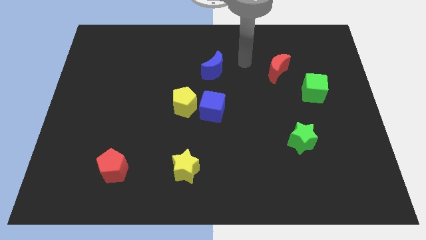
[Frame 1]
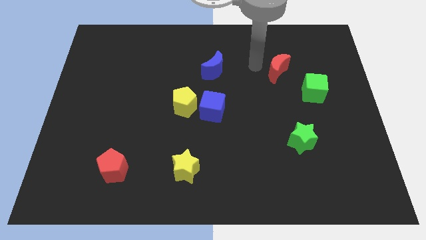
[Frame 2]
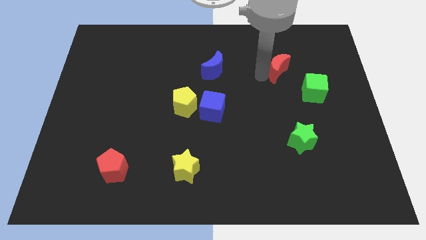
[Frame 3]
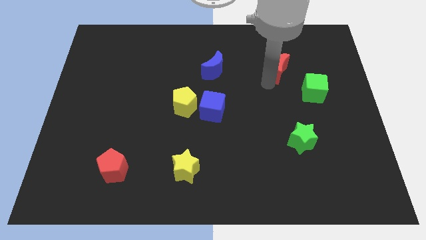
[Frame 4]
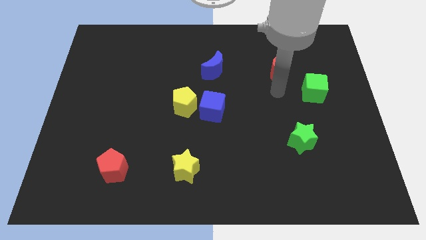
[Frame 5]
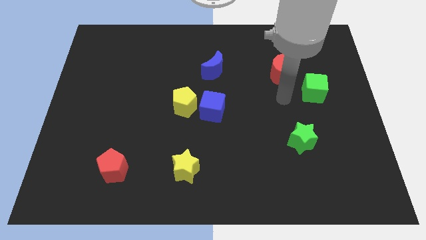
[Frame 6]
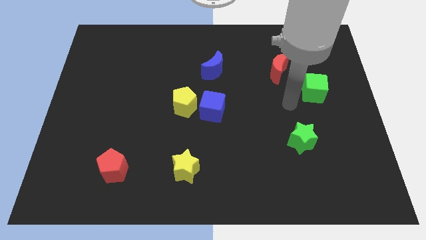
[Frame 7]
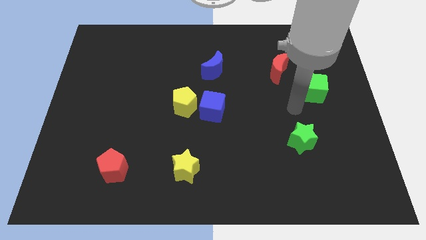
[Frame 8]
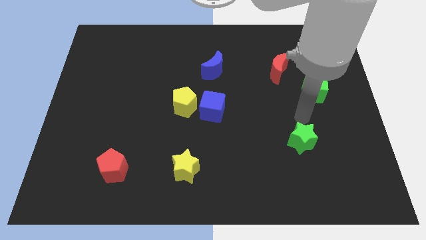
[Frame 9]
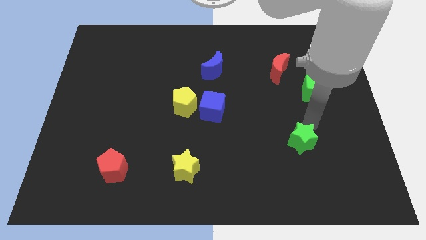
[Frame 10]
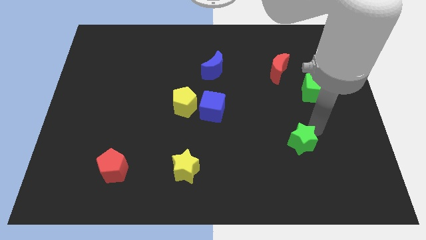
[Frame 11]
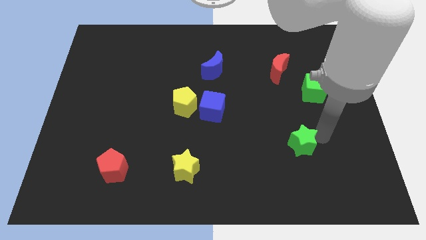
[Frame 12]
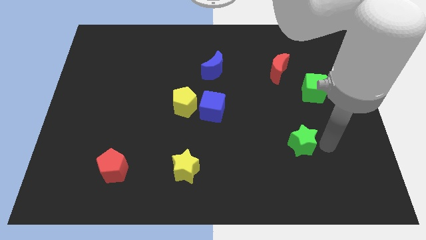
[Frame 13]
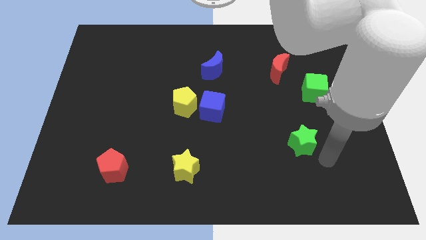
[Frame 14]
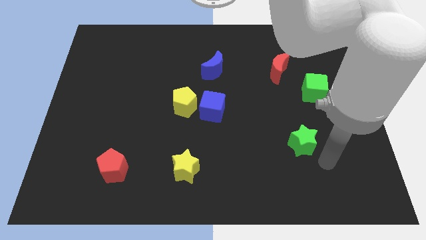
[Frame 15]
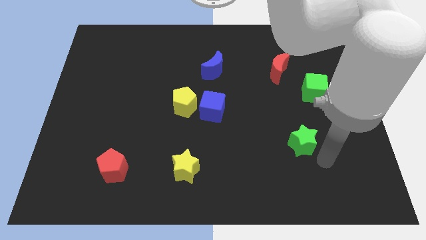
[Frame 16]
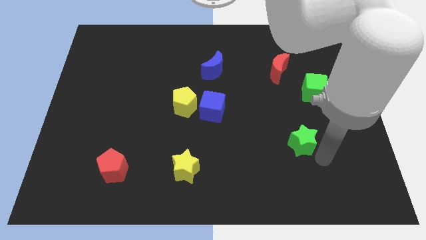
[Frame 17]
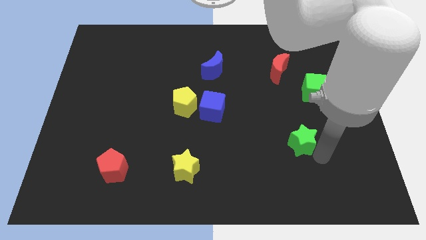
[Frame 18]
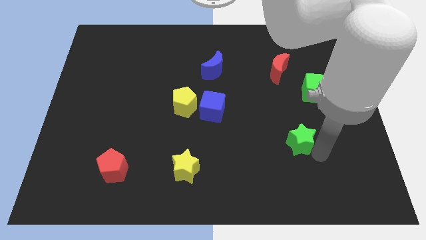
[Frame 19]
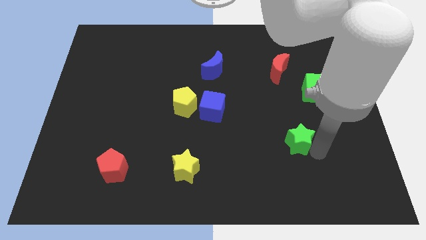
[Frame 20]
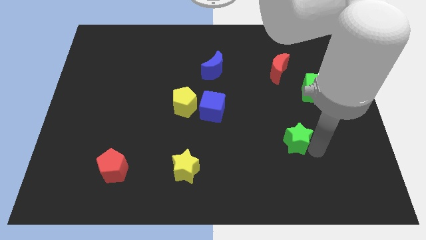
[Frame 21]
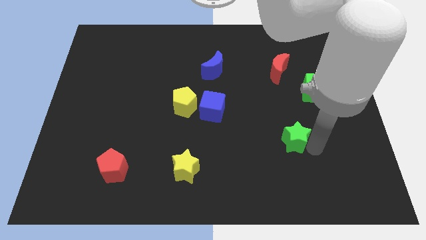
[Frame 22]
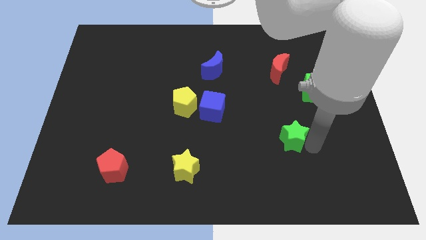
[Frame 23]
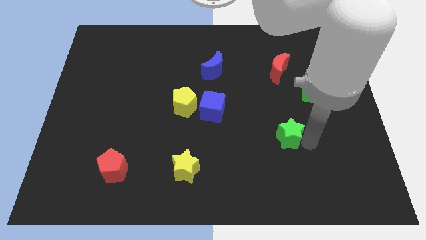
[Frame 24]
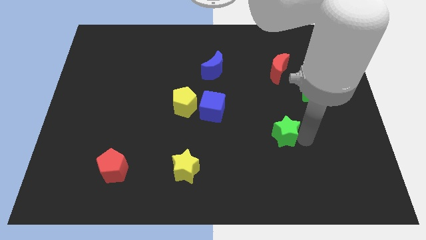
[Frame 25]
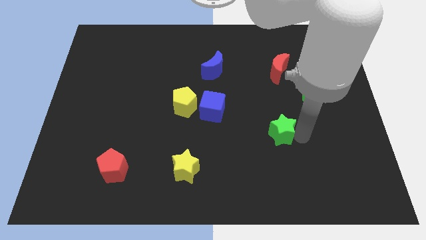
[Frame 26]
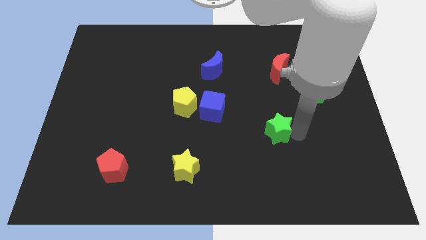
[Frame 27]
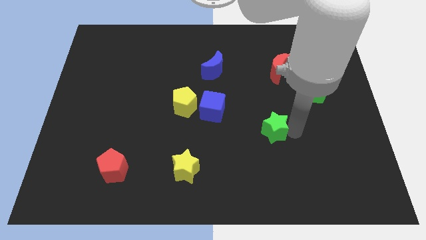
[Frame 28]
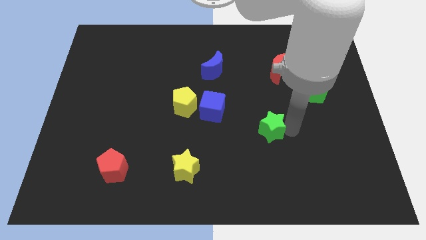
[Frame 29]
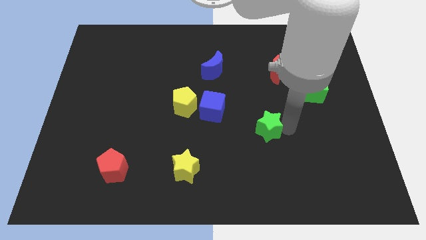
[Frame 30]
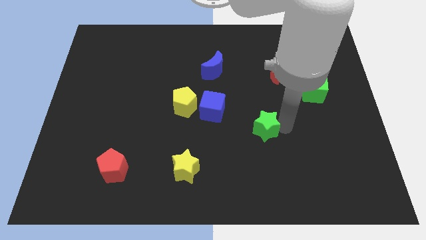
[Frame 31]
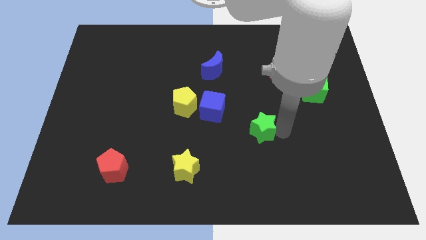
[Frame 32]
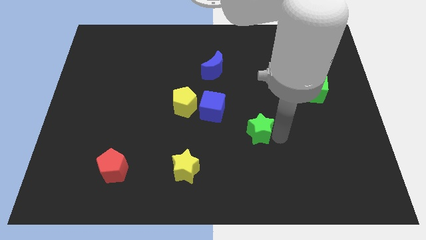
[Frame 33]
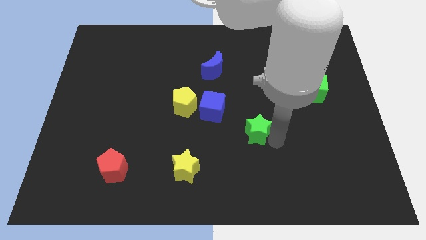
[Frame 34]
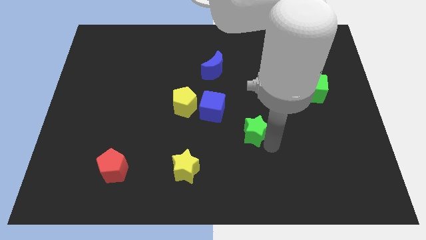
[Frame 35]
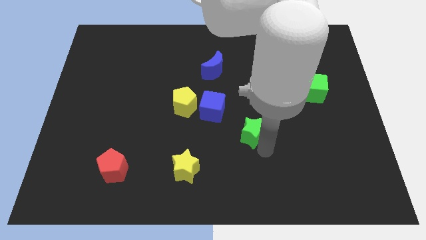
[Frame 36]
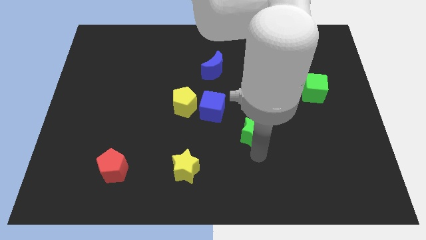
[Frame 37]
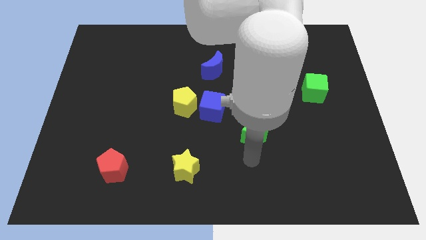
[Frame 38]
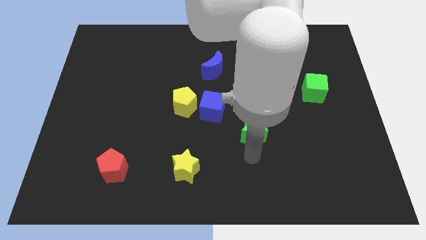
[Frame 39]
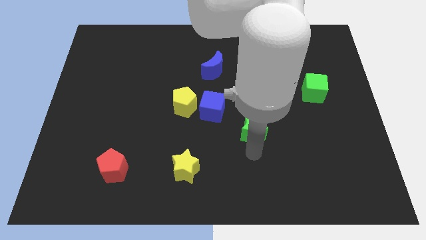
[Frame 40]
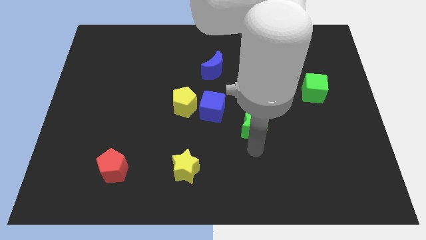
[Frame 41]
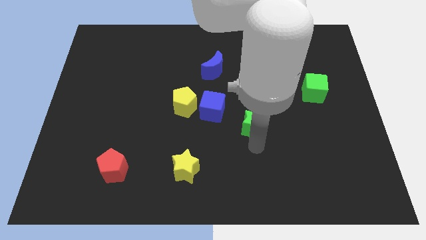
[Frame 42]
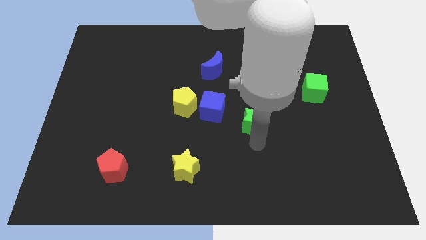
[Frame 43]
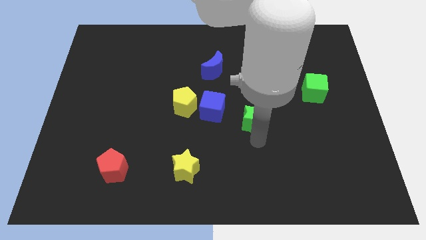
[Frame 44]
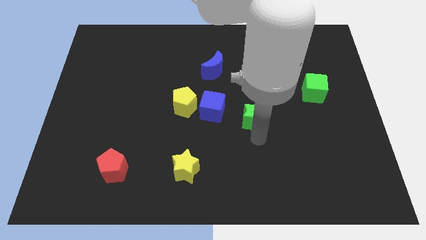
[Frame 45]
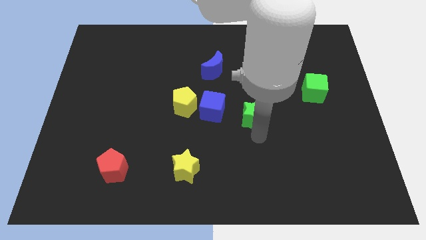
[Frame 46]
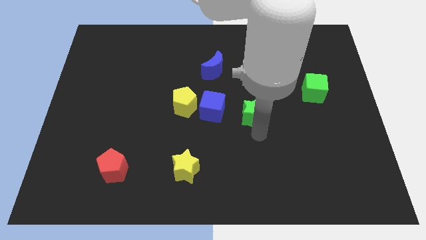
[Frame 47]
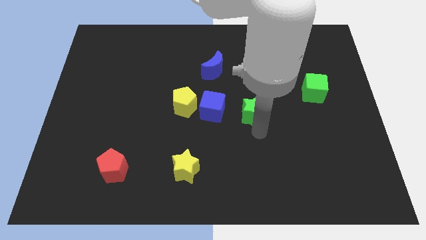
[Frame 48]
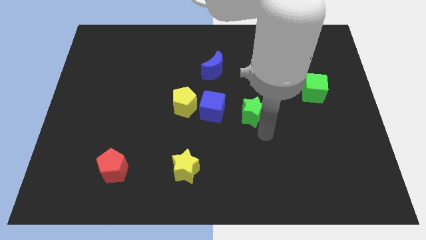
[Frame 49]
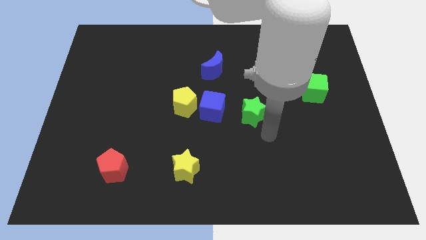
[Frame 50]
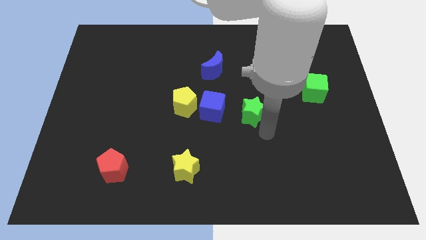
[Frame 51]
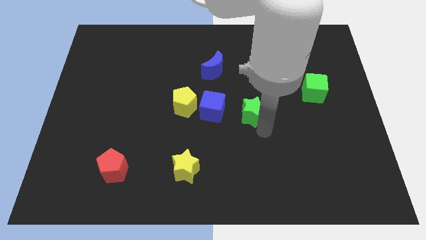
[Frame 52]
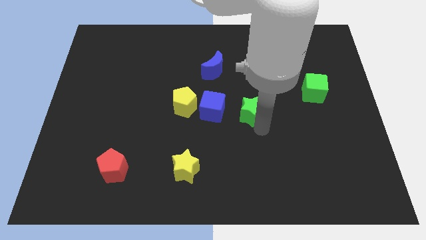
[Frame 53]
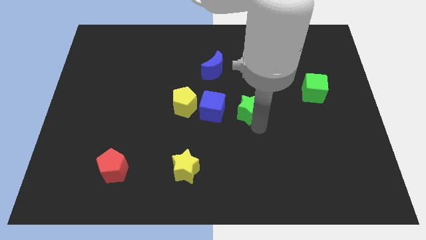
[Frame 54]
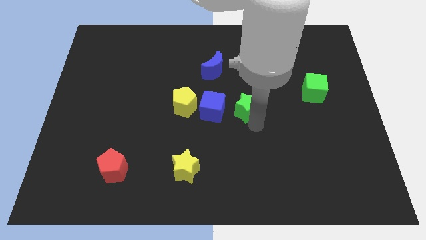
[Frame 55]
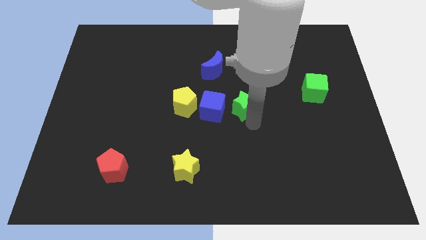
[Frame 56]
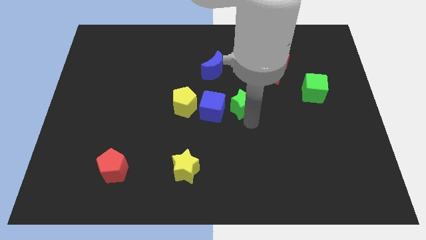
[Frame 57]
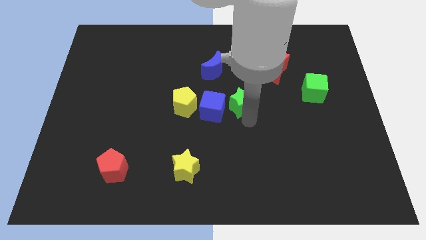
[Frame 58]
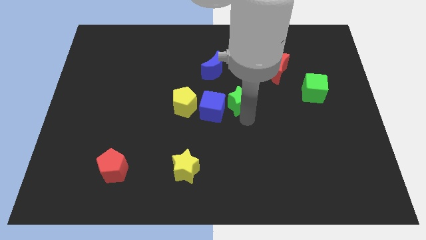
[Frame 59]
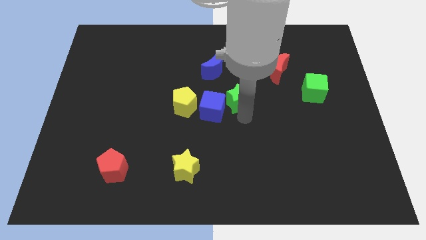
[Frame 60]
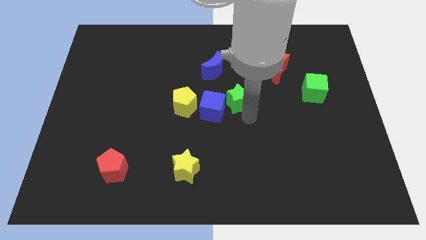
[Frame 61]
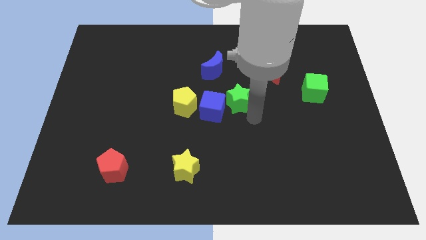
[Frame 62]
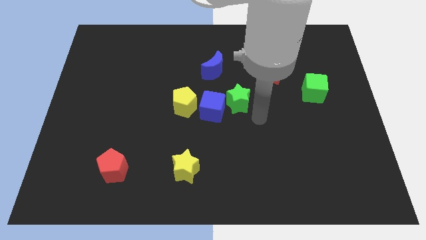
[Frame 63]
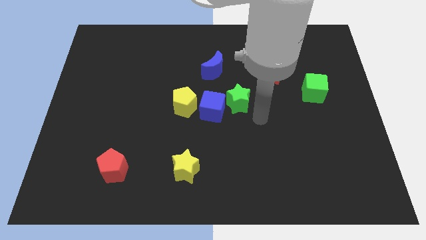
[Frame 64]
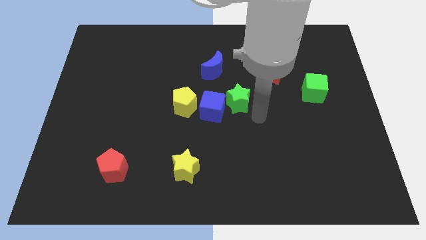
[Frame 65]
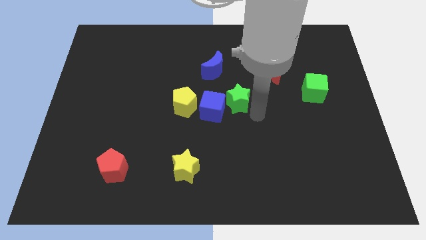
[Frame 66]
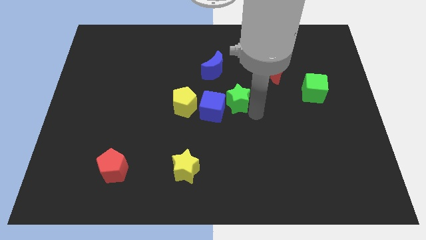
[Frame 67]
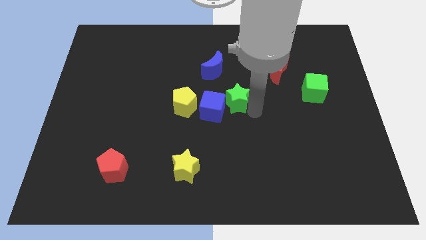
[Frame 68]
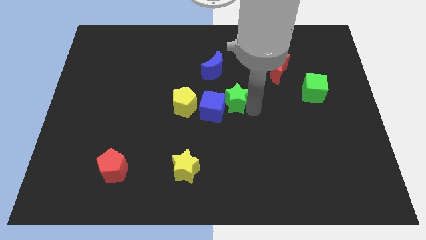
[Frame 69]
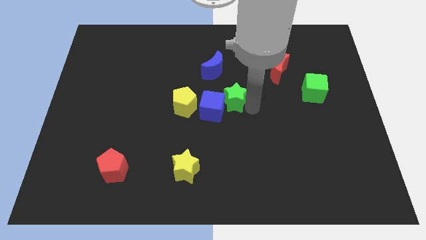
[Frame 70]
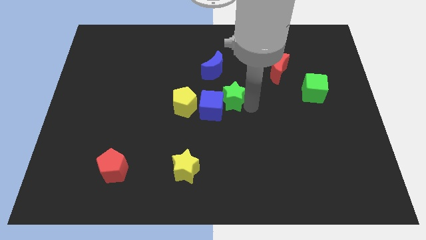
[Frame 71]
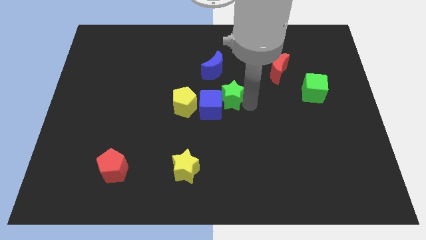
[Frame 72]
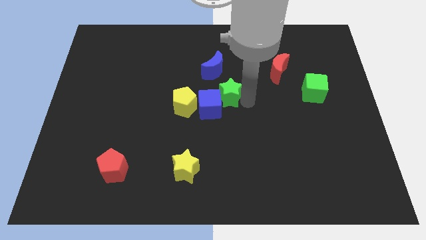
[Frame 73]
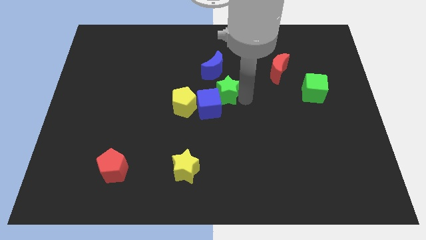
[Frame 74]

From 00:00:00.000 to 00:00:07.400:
push the green star diagonally up and left

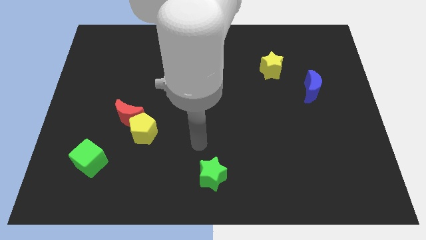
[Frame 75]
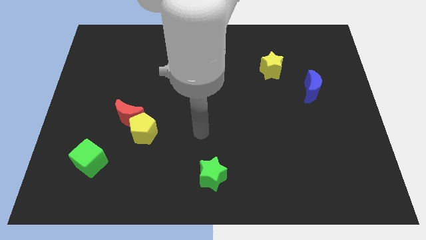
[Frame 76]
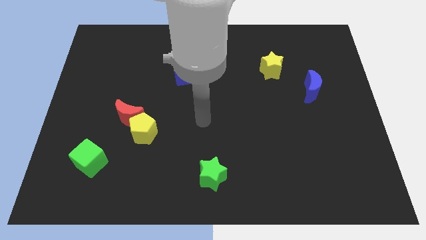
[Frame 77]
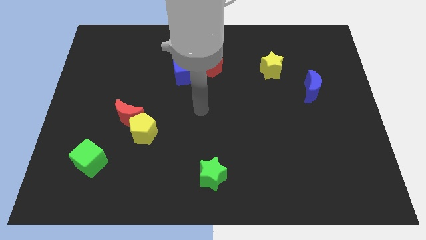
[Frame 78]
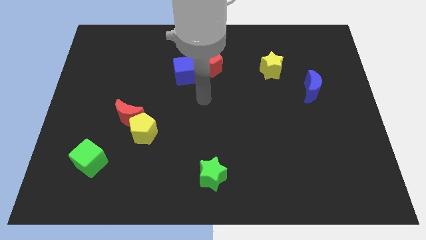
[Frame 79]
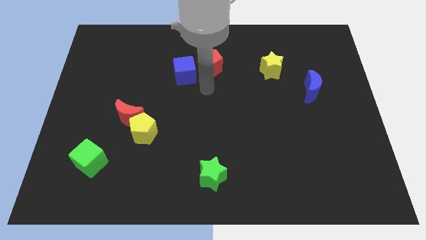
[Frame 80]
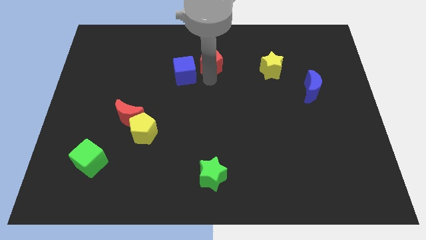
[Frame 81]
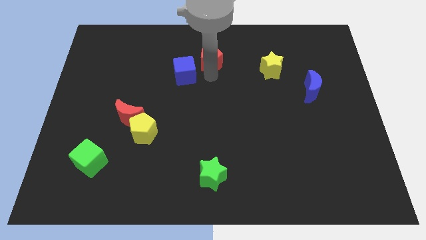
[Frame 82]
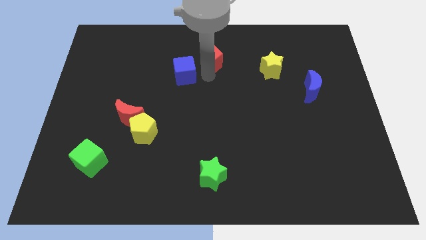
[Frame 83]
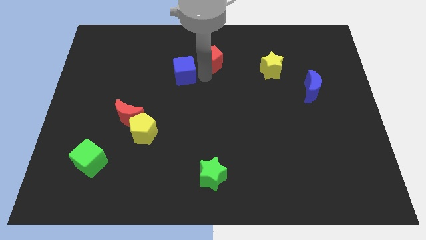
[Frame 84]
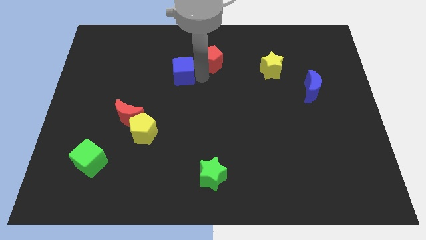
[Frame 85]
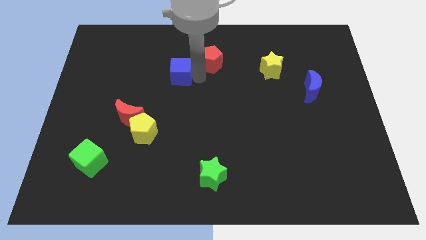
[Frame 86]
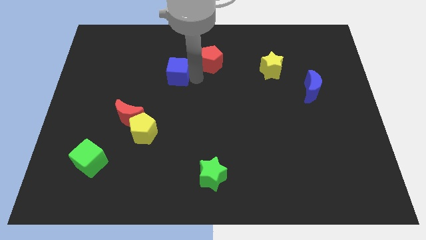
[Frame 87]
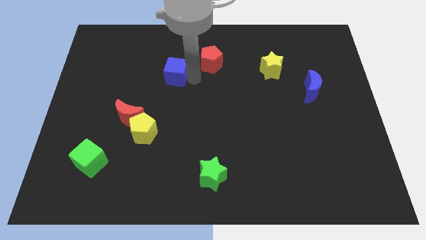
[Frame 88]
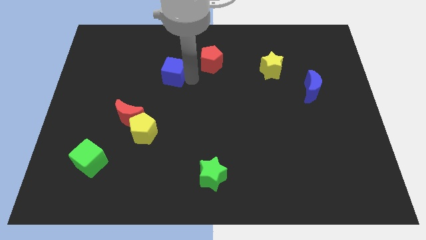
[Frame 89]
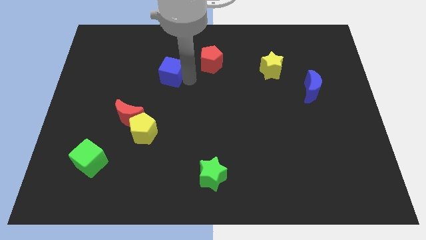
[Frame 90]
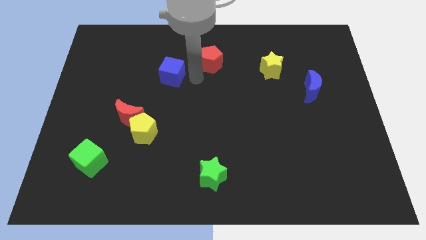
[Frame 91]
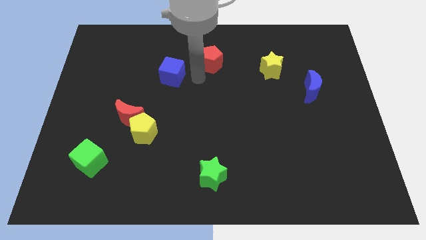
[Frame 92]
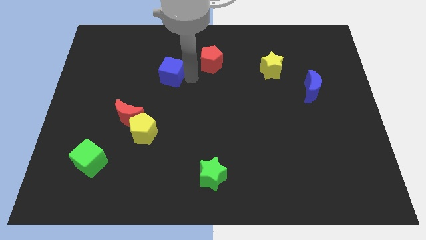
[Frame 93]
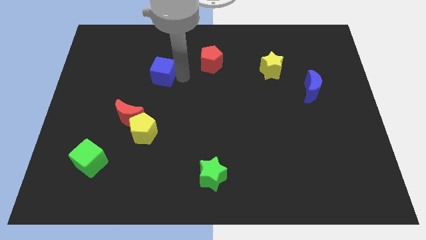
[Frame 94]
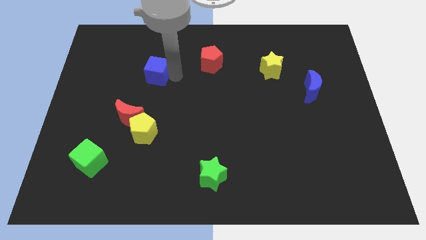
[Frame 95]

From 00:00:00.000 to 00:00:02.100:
move the blue cube a little left
